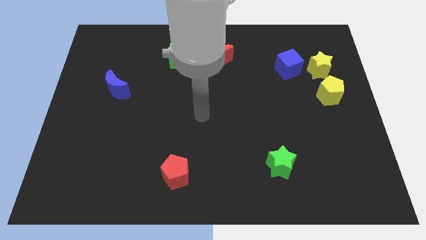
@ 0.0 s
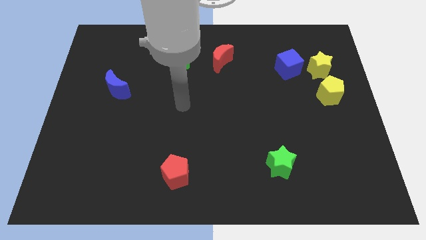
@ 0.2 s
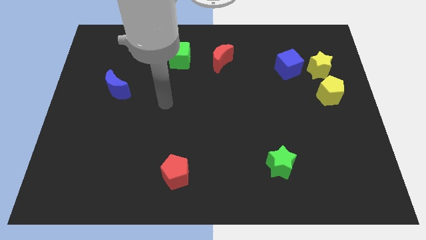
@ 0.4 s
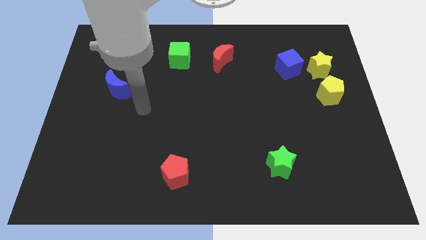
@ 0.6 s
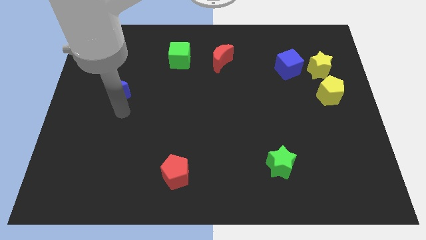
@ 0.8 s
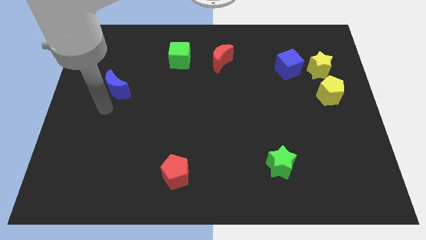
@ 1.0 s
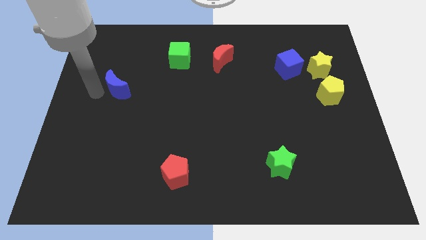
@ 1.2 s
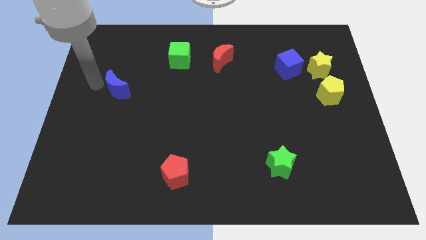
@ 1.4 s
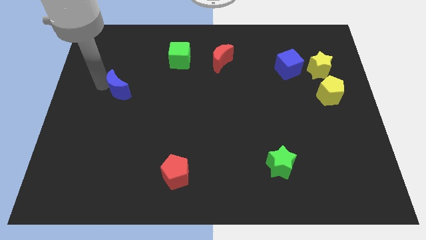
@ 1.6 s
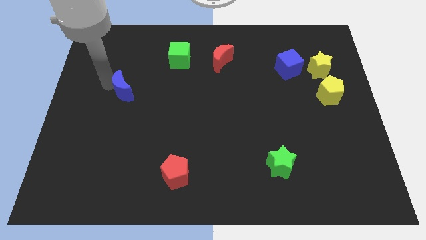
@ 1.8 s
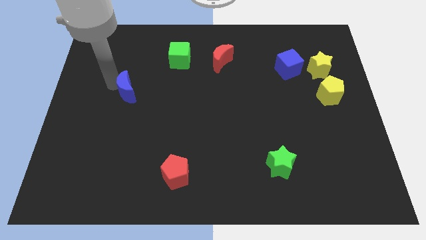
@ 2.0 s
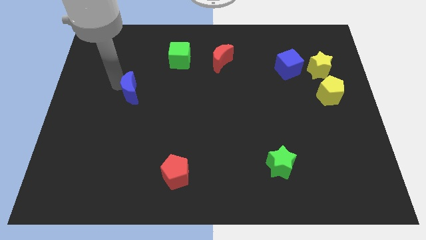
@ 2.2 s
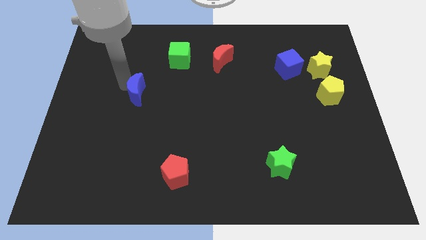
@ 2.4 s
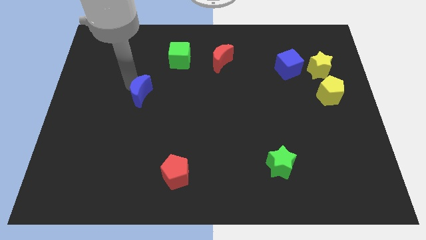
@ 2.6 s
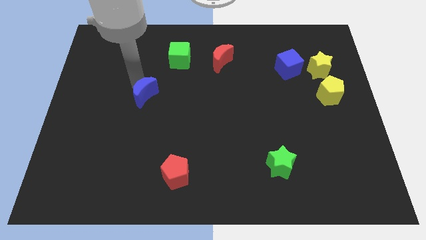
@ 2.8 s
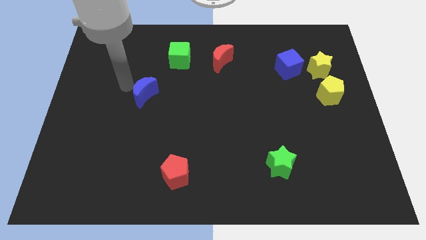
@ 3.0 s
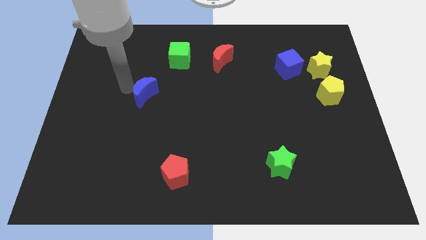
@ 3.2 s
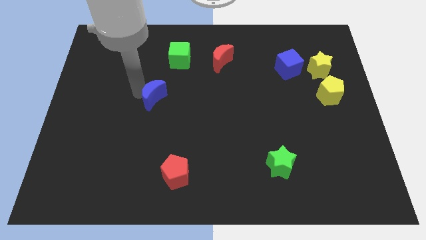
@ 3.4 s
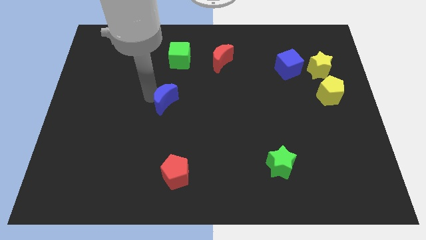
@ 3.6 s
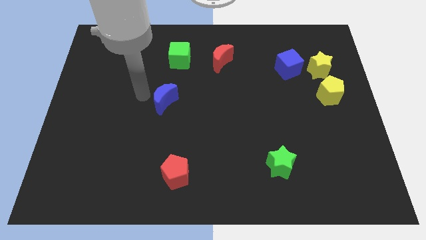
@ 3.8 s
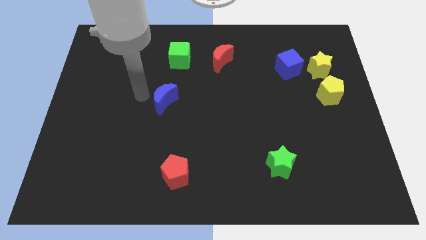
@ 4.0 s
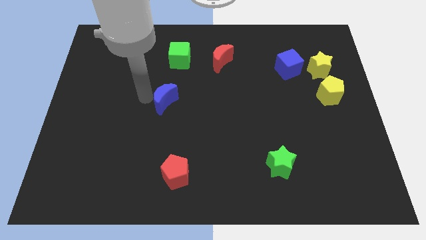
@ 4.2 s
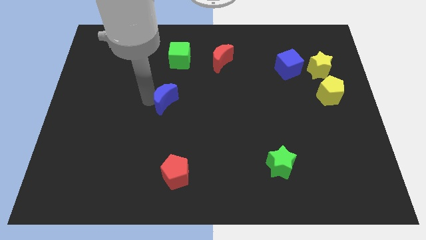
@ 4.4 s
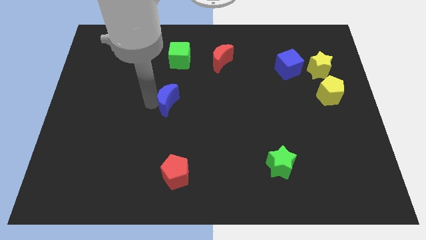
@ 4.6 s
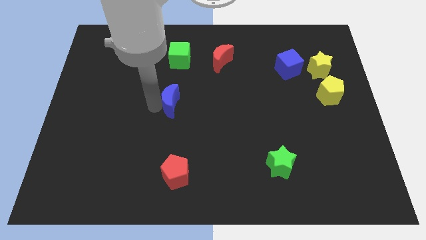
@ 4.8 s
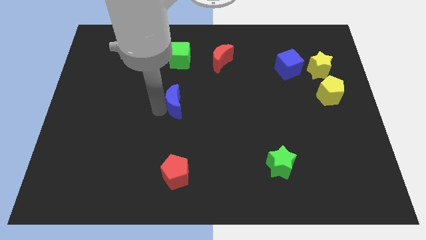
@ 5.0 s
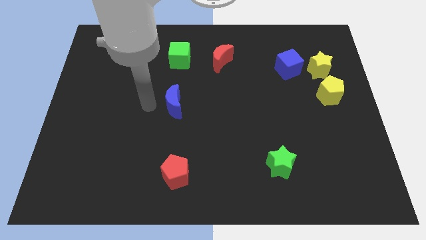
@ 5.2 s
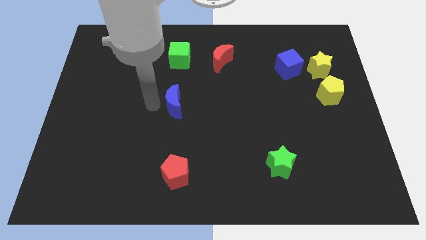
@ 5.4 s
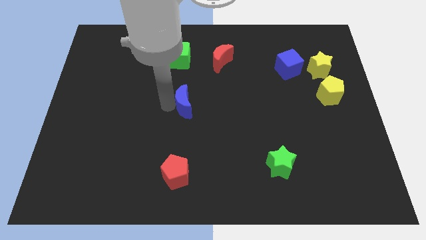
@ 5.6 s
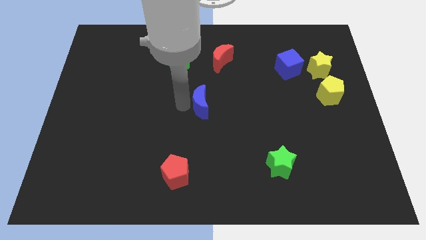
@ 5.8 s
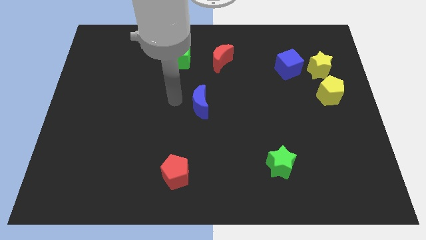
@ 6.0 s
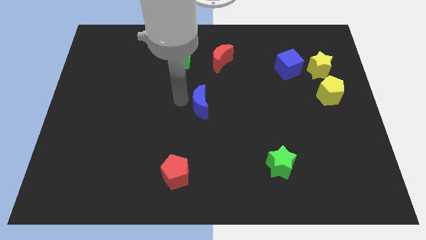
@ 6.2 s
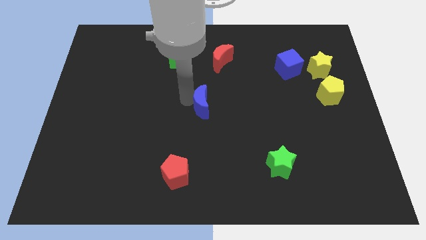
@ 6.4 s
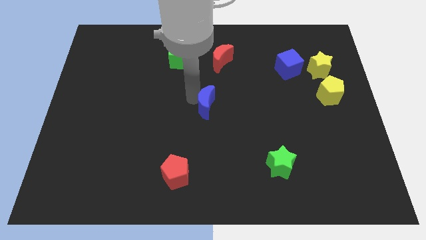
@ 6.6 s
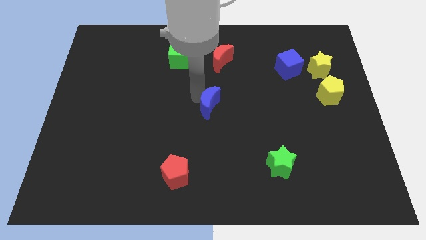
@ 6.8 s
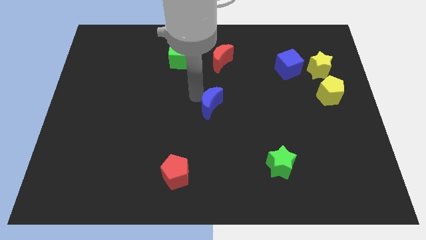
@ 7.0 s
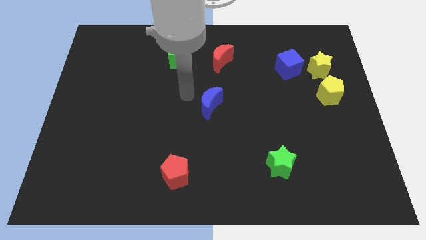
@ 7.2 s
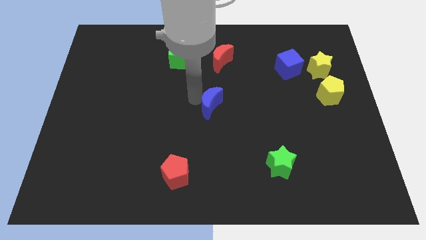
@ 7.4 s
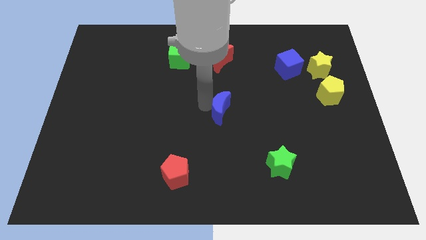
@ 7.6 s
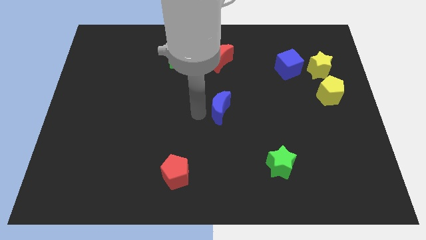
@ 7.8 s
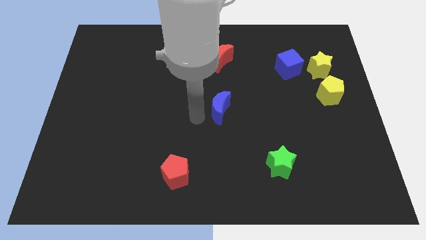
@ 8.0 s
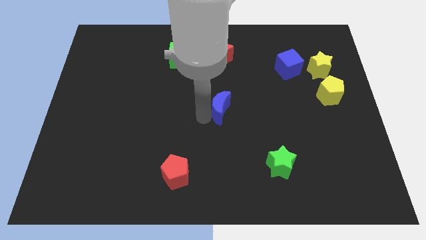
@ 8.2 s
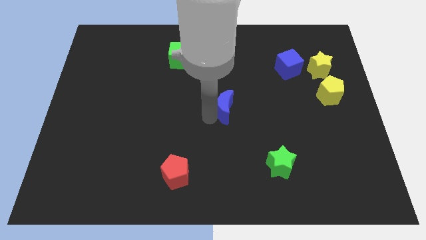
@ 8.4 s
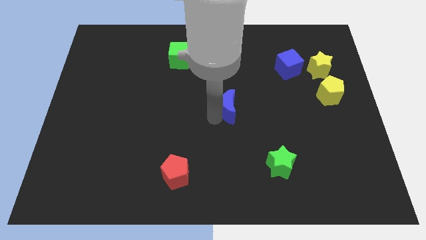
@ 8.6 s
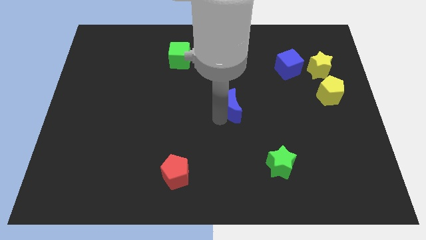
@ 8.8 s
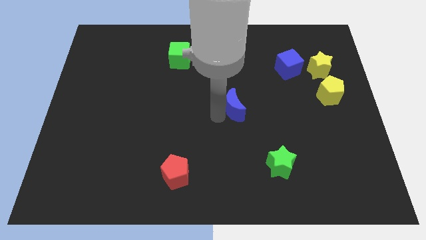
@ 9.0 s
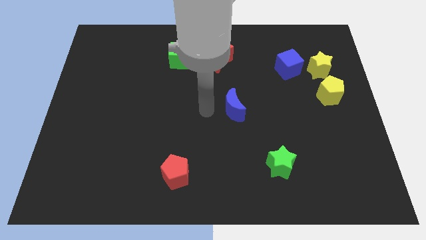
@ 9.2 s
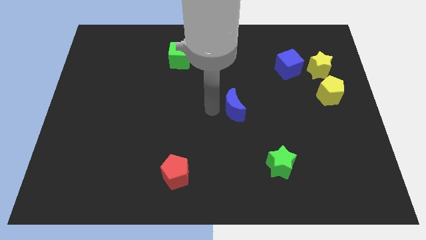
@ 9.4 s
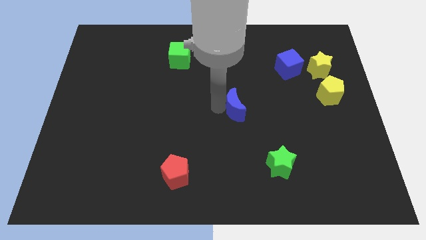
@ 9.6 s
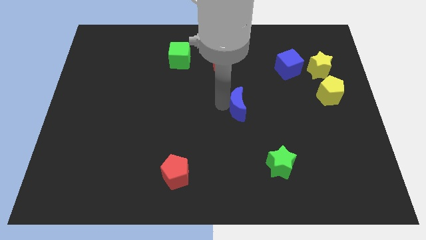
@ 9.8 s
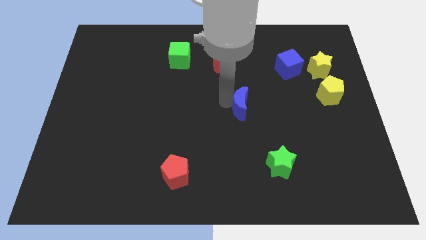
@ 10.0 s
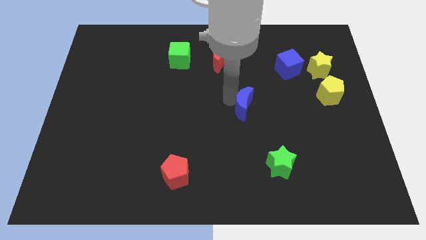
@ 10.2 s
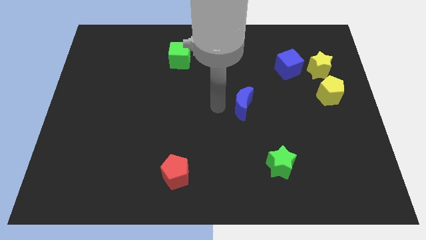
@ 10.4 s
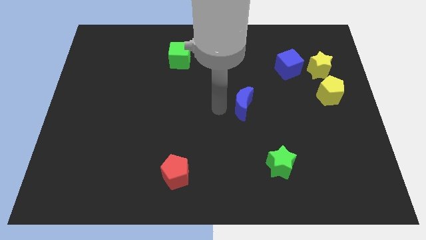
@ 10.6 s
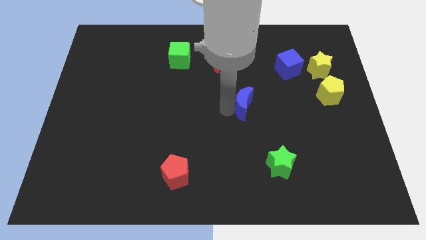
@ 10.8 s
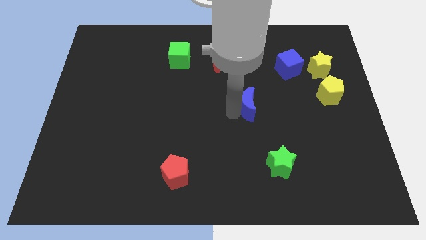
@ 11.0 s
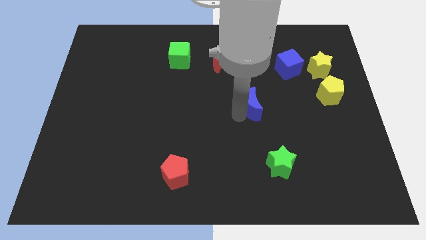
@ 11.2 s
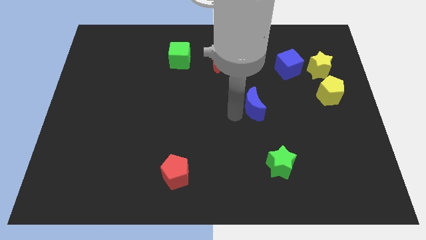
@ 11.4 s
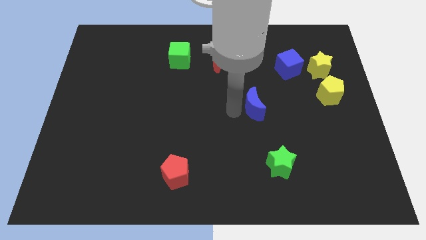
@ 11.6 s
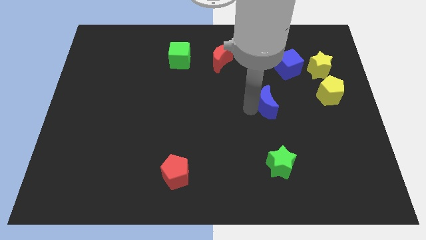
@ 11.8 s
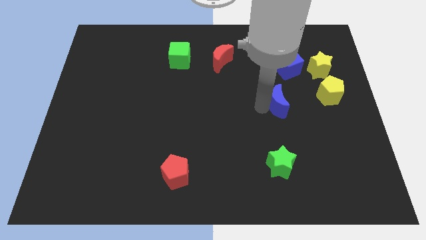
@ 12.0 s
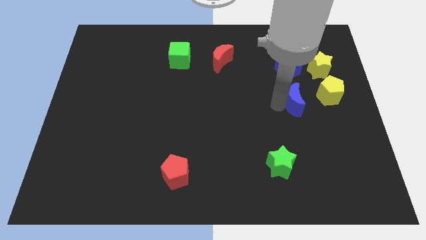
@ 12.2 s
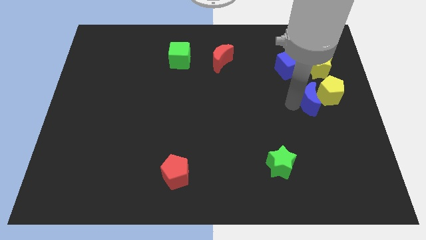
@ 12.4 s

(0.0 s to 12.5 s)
move the blue moon close to the yellow pentagon
